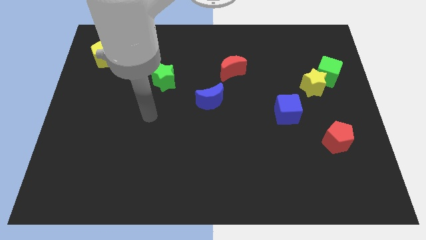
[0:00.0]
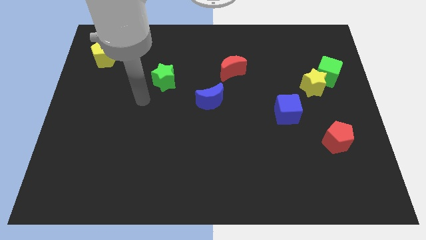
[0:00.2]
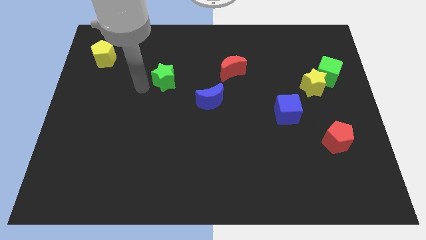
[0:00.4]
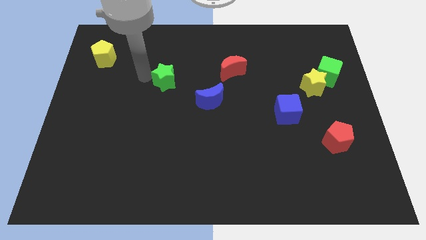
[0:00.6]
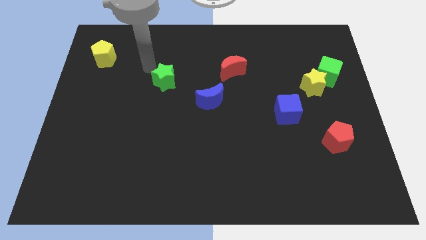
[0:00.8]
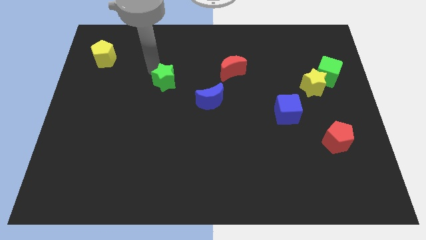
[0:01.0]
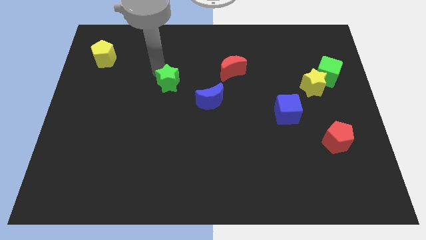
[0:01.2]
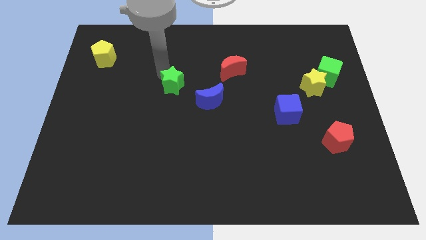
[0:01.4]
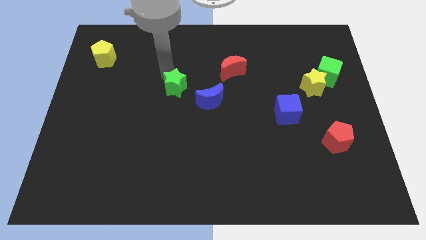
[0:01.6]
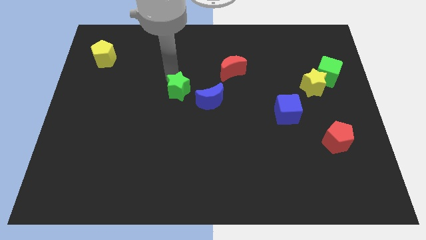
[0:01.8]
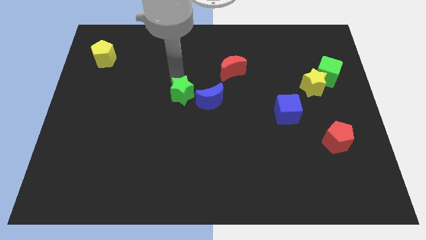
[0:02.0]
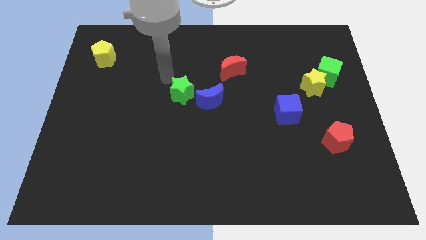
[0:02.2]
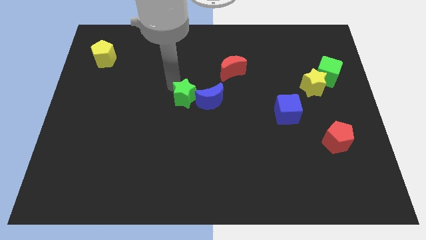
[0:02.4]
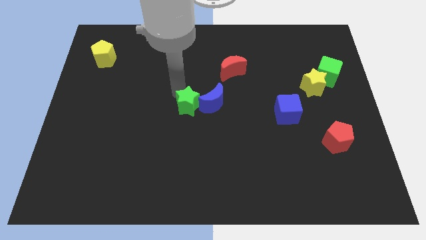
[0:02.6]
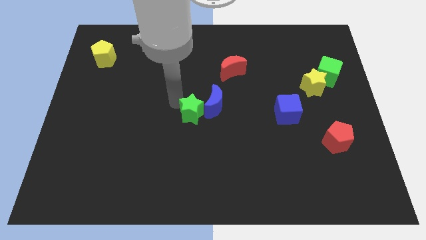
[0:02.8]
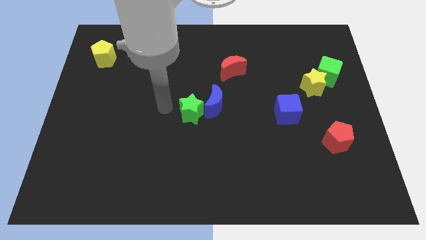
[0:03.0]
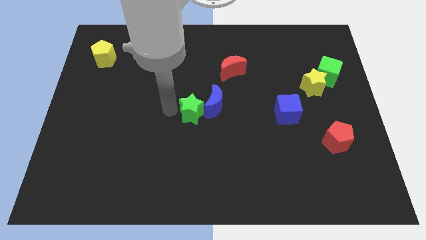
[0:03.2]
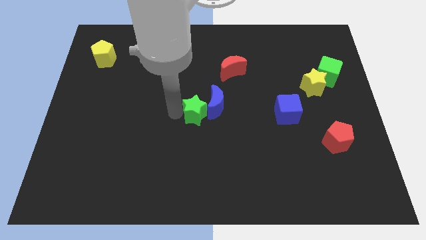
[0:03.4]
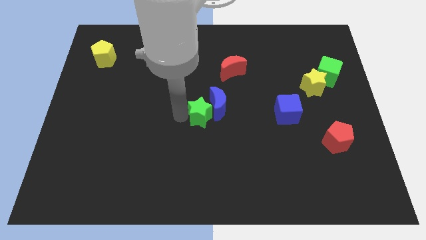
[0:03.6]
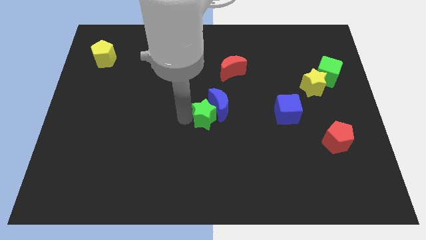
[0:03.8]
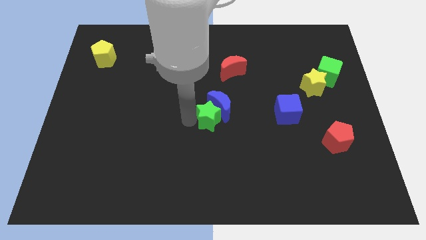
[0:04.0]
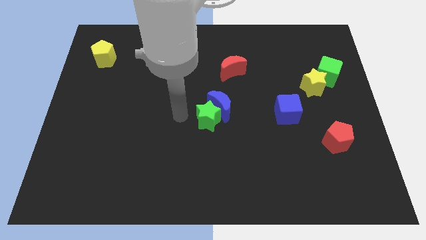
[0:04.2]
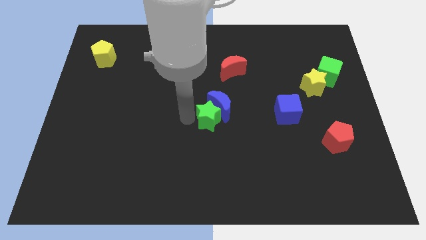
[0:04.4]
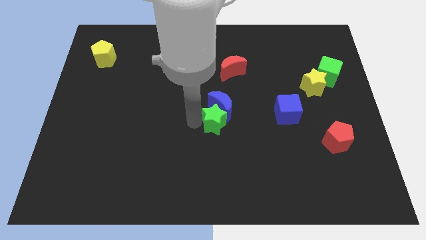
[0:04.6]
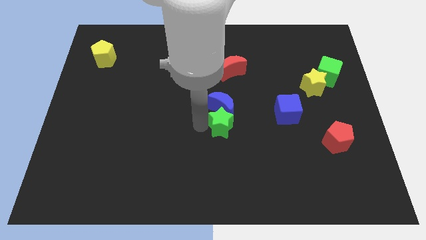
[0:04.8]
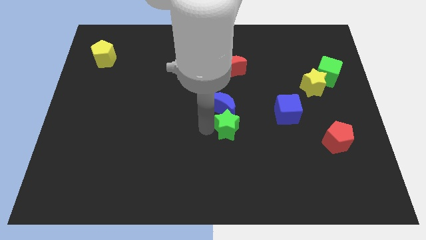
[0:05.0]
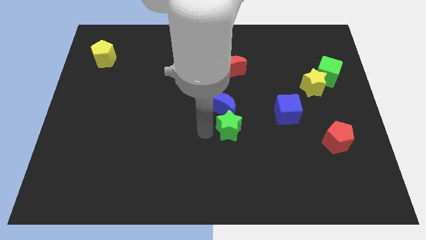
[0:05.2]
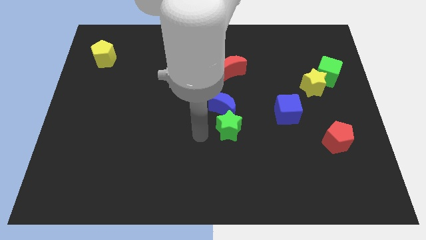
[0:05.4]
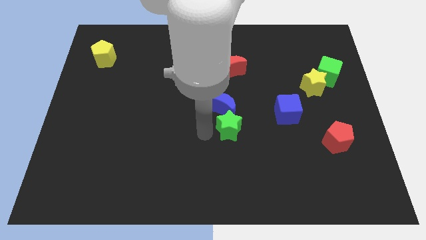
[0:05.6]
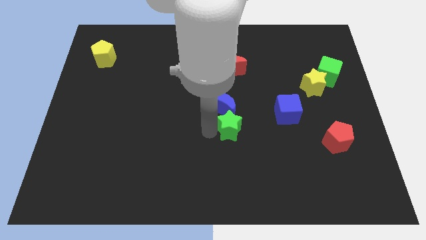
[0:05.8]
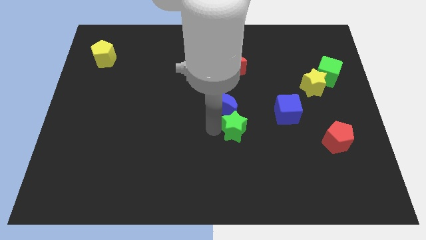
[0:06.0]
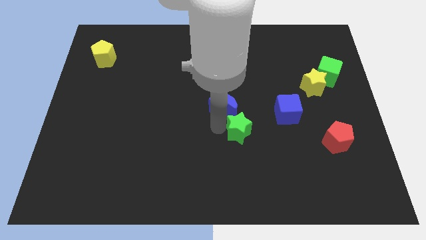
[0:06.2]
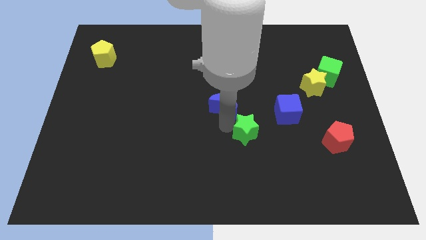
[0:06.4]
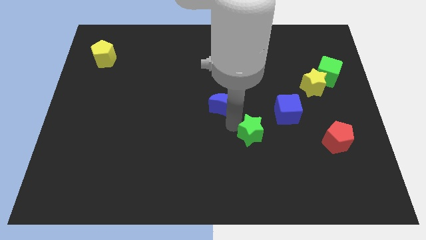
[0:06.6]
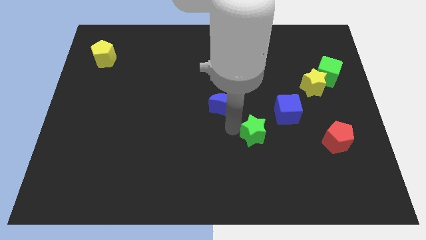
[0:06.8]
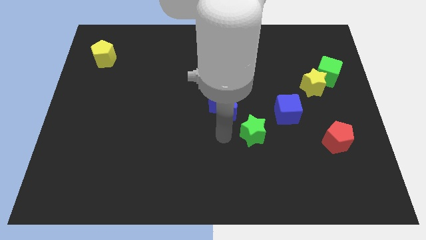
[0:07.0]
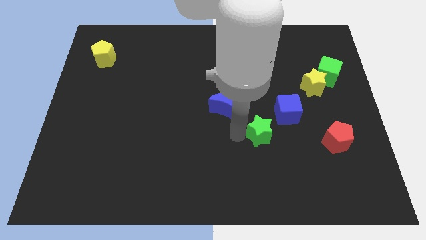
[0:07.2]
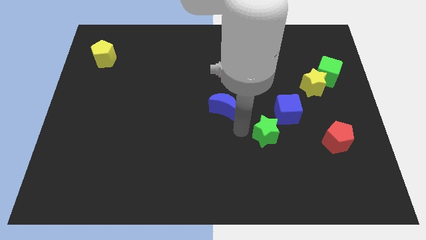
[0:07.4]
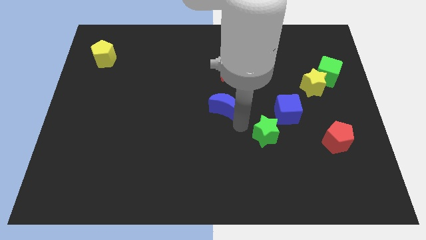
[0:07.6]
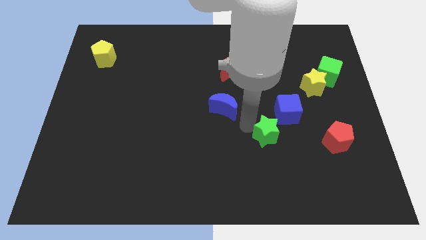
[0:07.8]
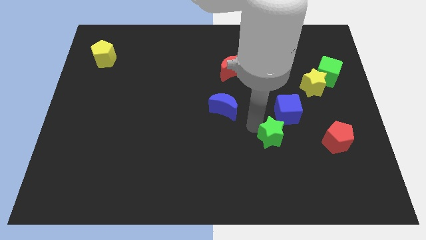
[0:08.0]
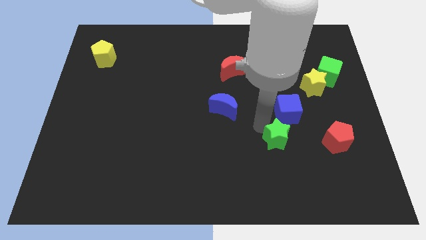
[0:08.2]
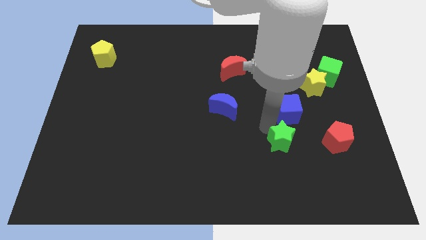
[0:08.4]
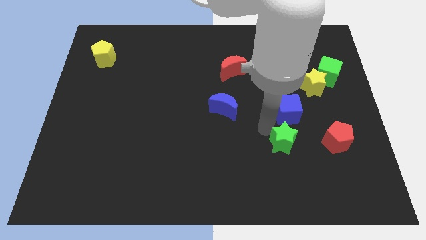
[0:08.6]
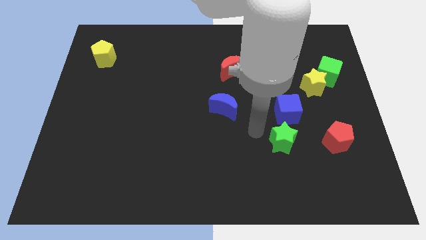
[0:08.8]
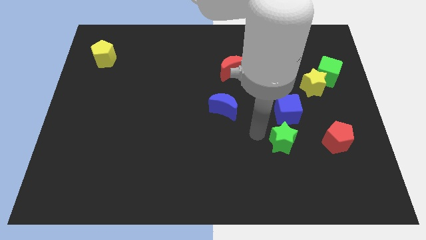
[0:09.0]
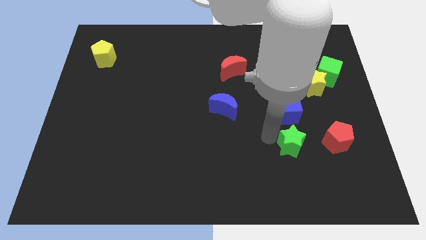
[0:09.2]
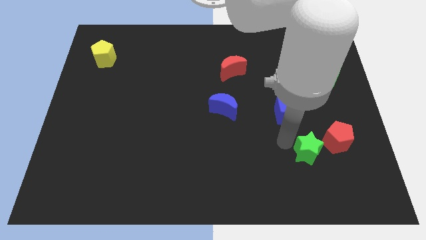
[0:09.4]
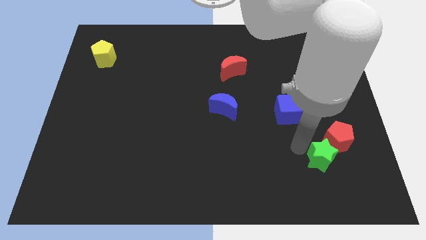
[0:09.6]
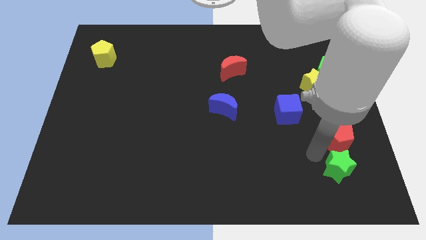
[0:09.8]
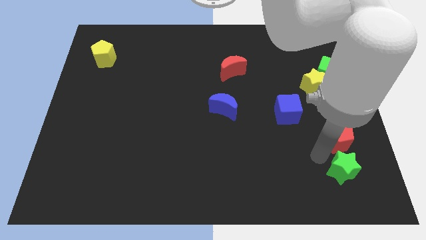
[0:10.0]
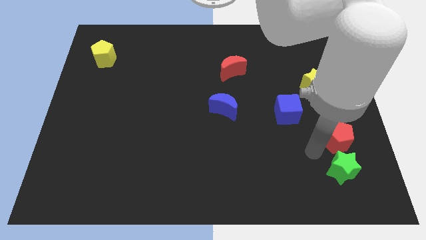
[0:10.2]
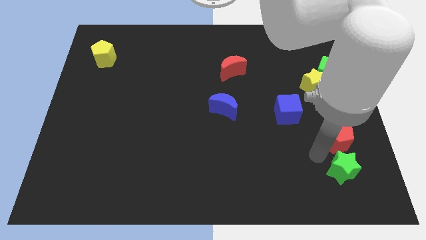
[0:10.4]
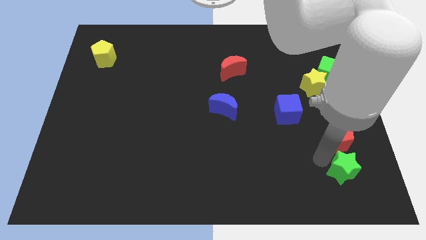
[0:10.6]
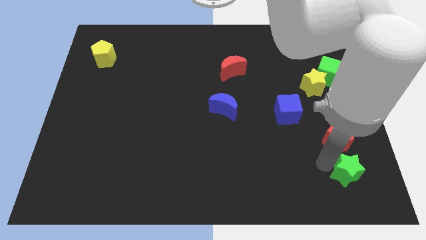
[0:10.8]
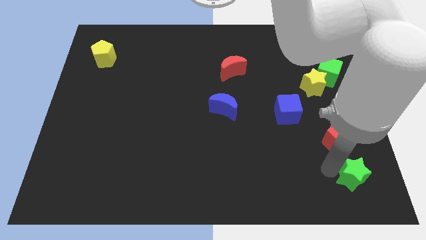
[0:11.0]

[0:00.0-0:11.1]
push the green star to the bottom right

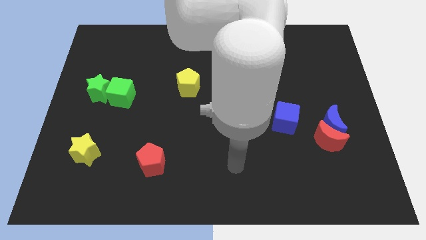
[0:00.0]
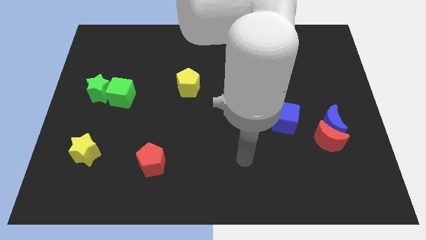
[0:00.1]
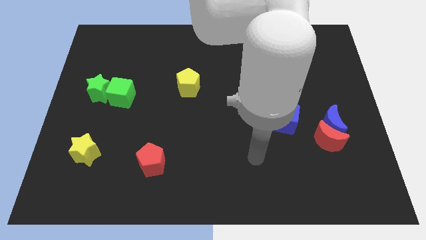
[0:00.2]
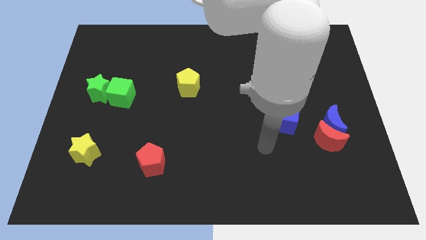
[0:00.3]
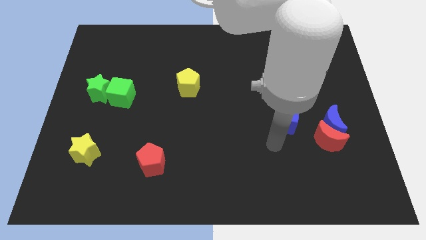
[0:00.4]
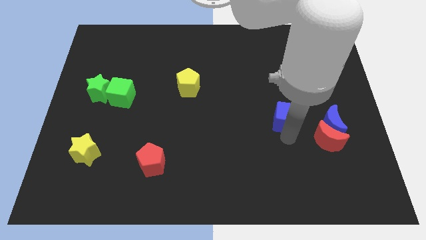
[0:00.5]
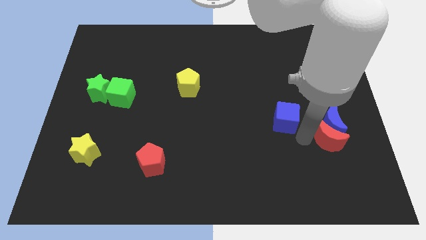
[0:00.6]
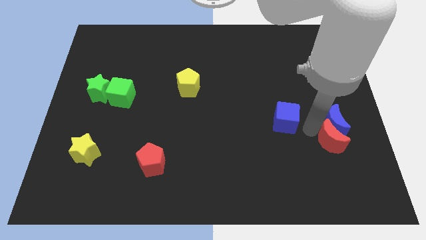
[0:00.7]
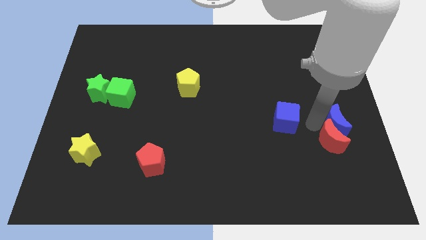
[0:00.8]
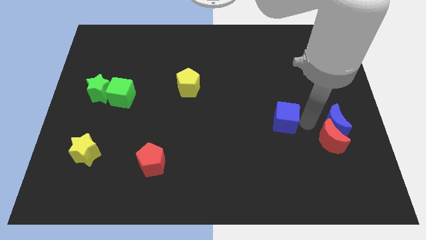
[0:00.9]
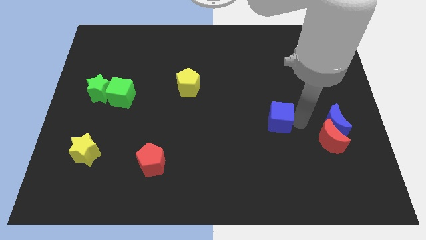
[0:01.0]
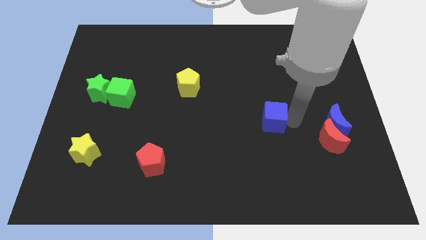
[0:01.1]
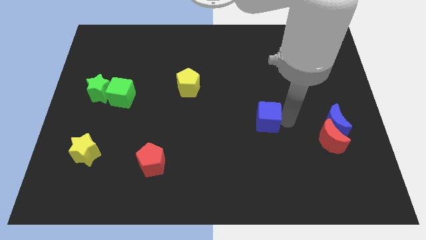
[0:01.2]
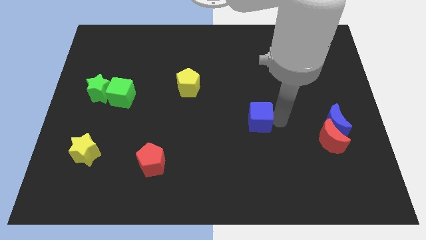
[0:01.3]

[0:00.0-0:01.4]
slide the blue cube to the middle of the board
